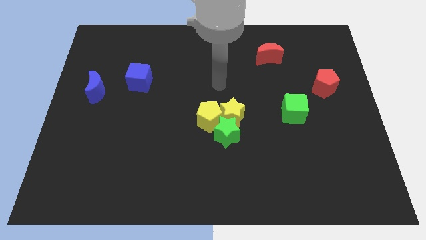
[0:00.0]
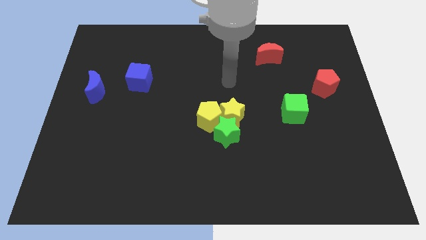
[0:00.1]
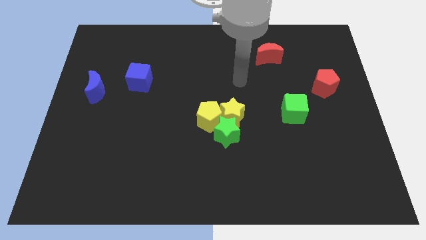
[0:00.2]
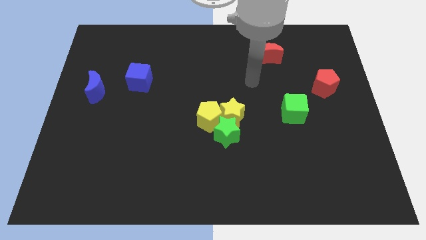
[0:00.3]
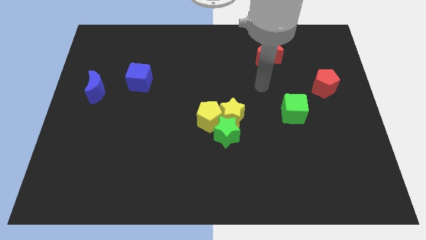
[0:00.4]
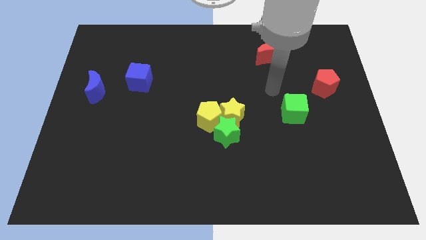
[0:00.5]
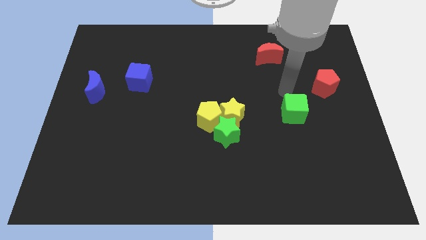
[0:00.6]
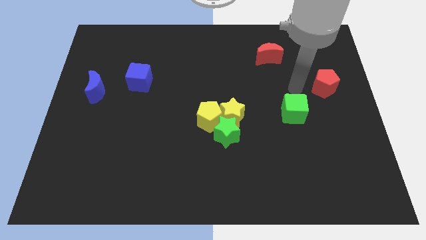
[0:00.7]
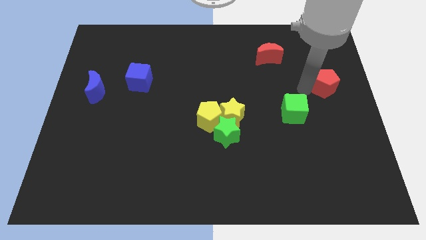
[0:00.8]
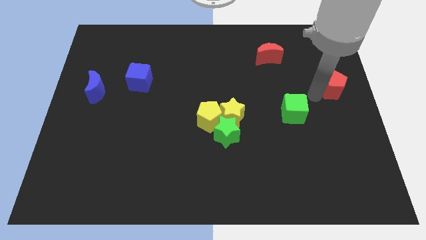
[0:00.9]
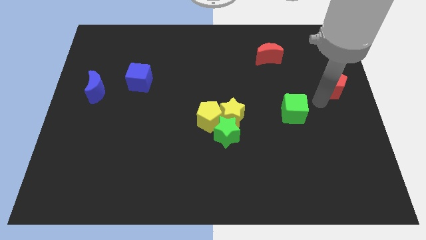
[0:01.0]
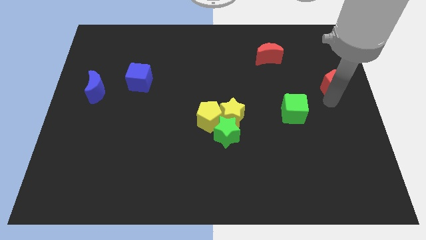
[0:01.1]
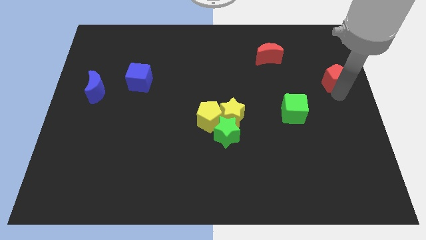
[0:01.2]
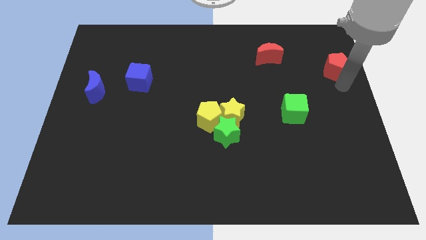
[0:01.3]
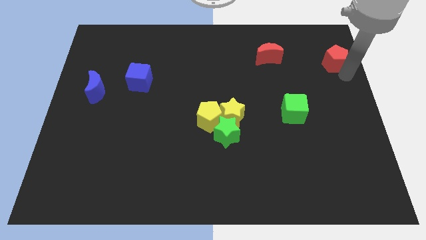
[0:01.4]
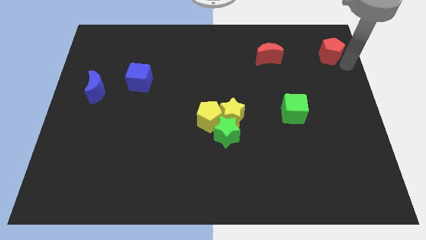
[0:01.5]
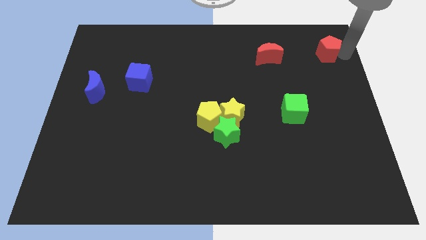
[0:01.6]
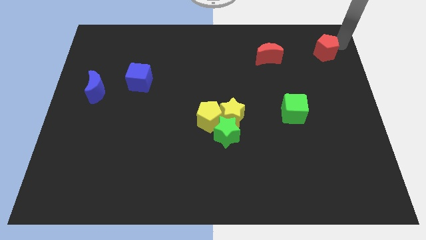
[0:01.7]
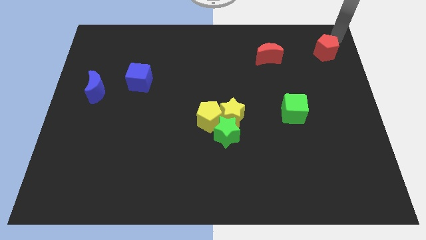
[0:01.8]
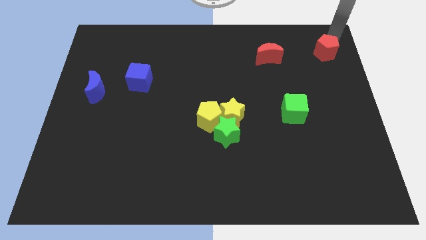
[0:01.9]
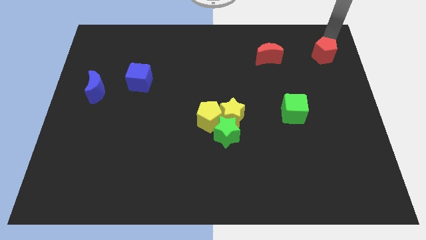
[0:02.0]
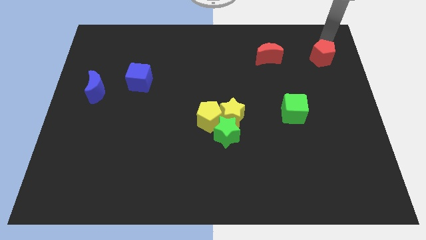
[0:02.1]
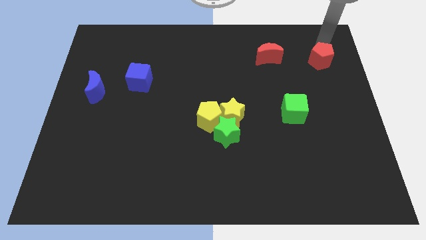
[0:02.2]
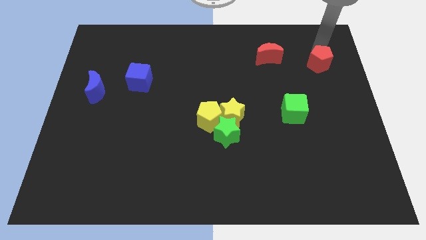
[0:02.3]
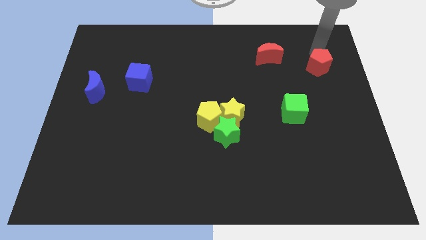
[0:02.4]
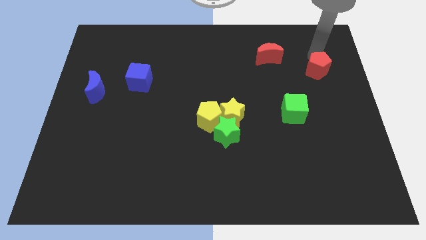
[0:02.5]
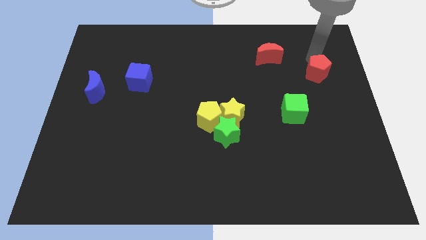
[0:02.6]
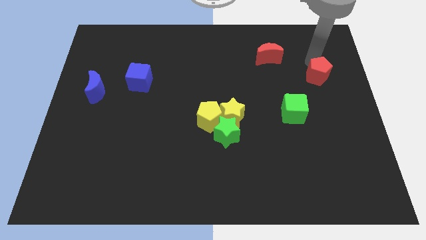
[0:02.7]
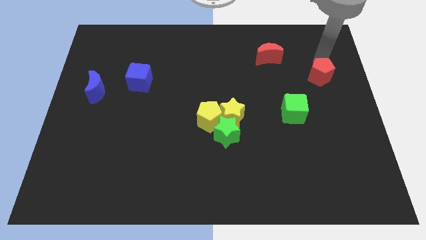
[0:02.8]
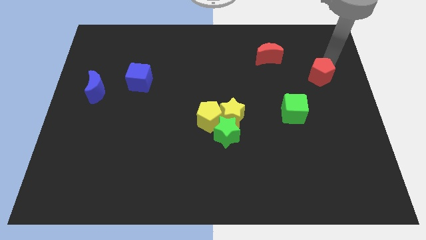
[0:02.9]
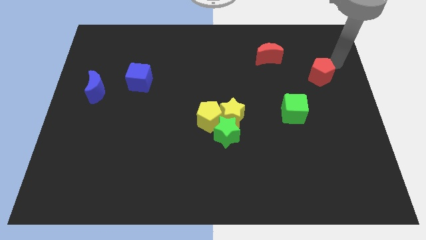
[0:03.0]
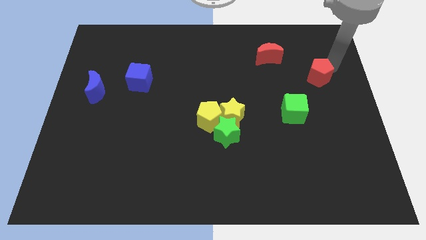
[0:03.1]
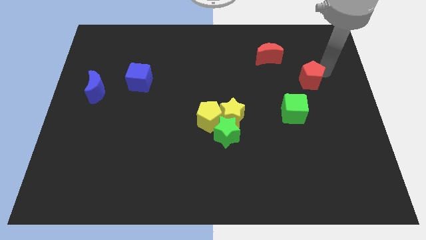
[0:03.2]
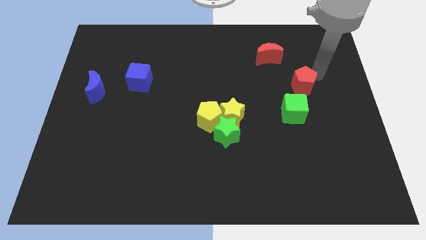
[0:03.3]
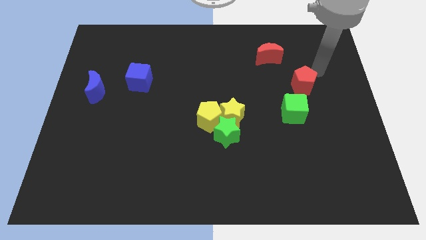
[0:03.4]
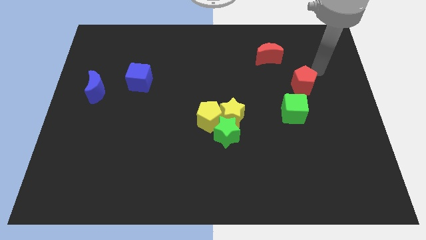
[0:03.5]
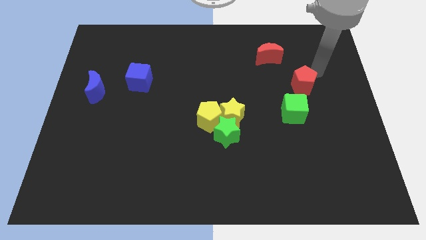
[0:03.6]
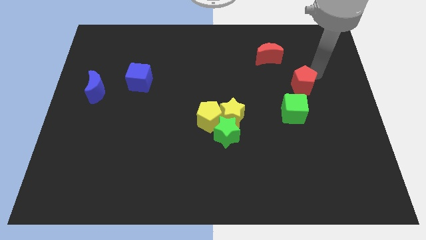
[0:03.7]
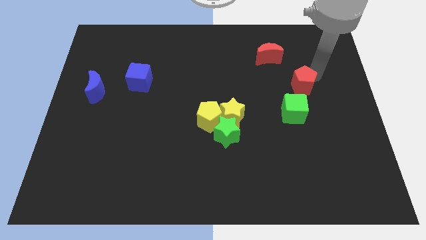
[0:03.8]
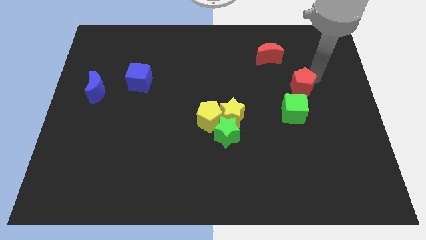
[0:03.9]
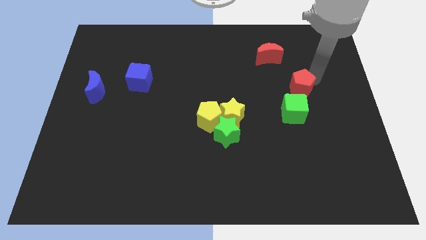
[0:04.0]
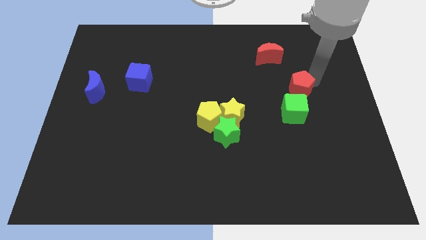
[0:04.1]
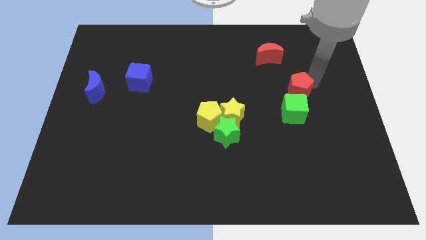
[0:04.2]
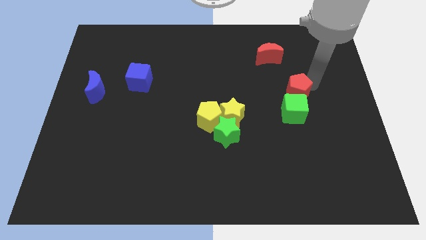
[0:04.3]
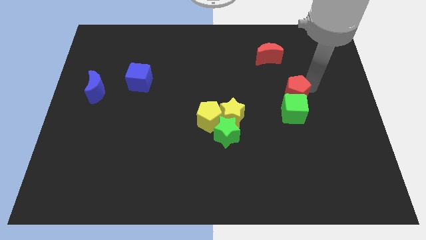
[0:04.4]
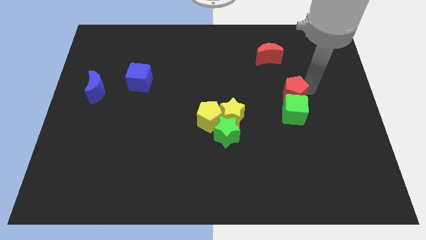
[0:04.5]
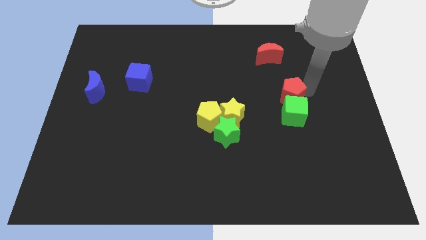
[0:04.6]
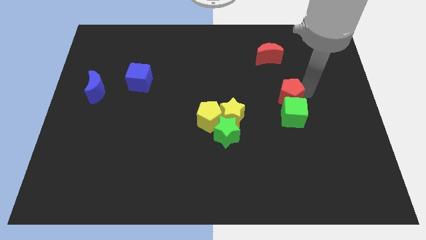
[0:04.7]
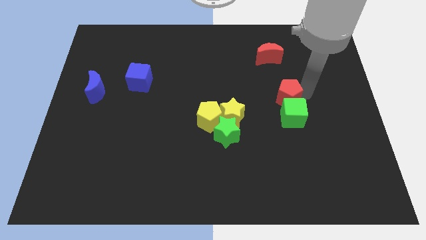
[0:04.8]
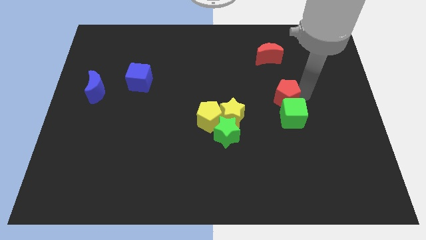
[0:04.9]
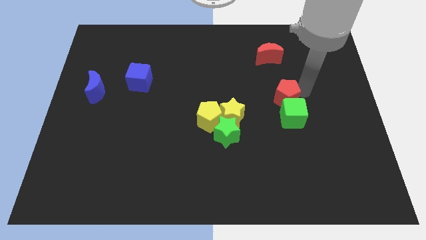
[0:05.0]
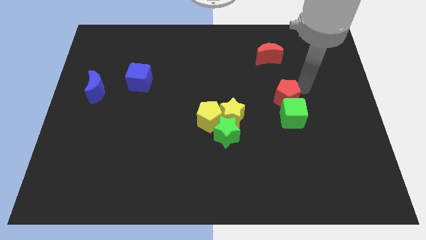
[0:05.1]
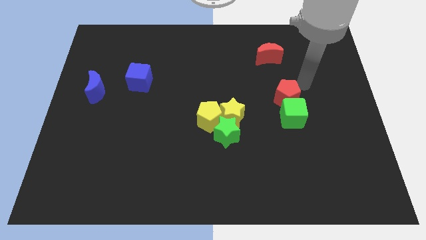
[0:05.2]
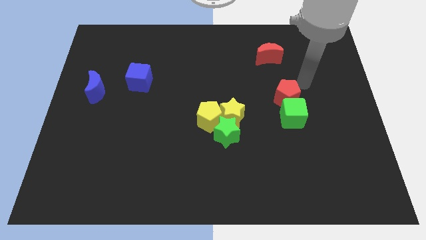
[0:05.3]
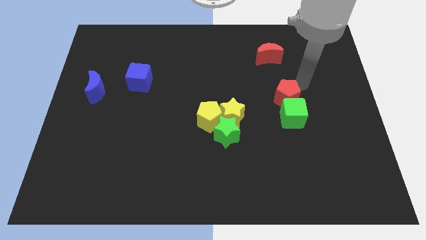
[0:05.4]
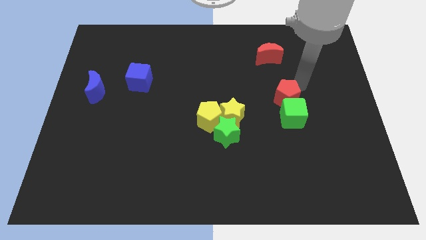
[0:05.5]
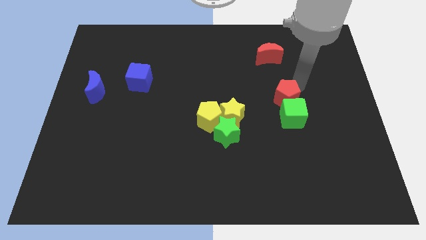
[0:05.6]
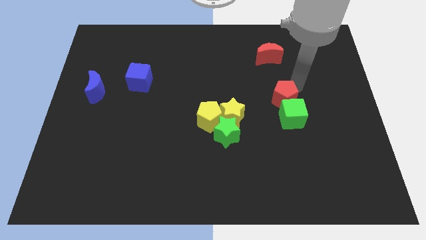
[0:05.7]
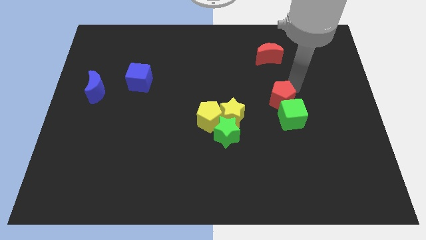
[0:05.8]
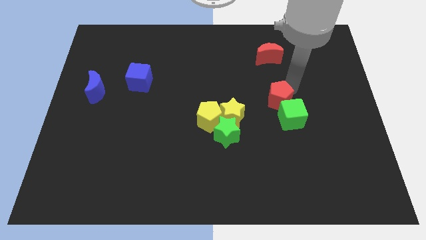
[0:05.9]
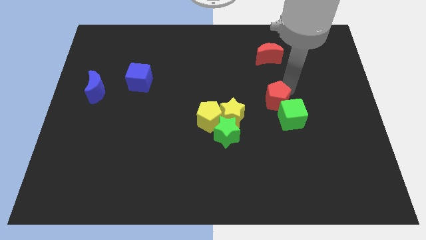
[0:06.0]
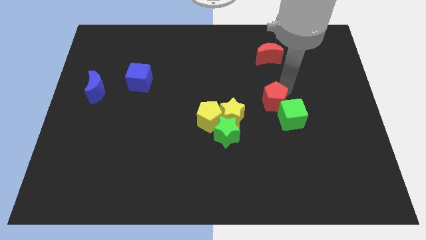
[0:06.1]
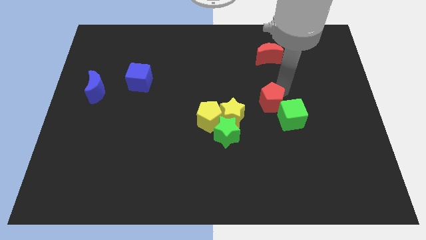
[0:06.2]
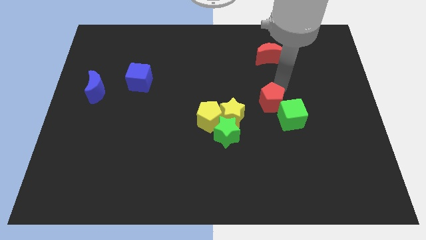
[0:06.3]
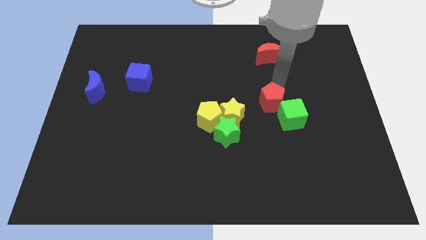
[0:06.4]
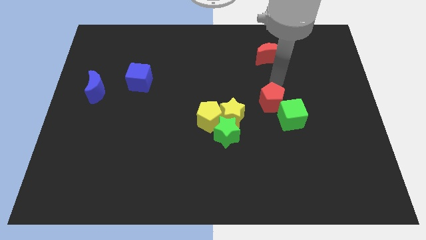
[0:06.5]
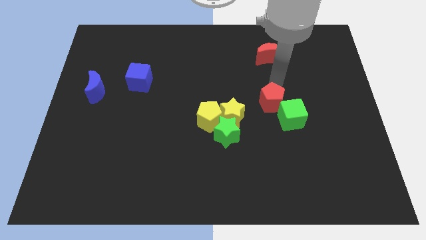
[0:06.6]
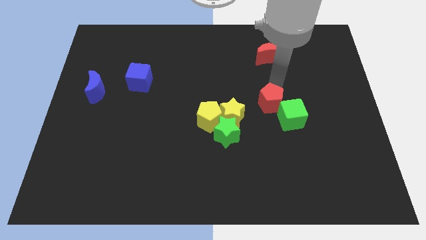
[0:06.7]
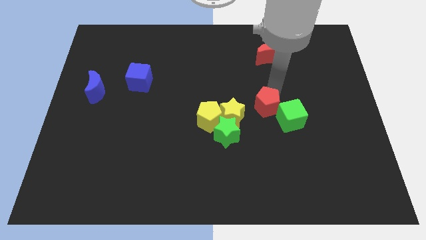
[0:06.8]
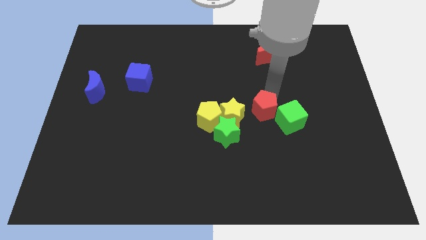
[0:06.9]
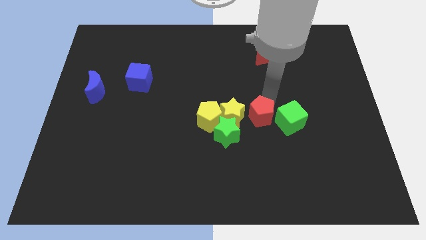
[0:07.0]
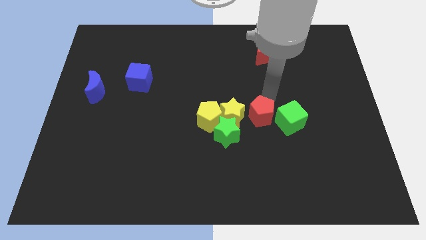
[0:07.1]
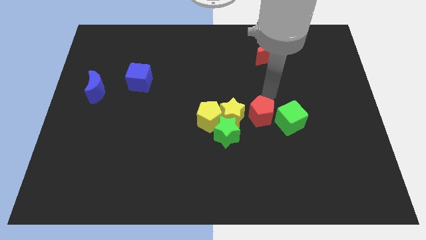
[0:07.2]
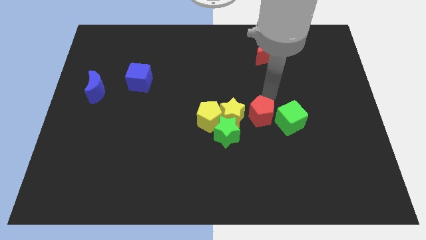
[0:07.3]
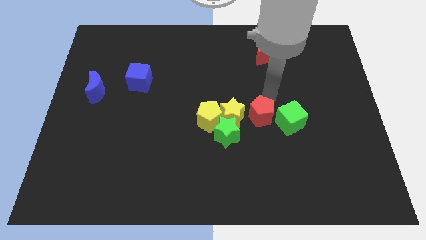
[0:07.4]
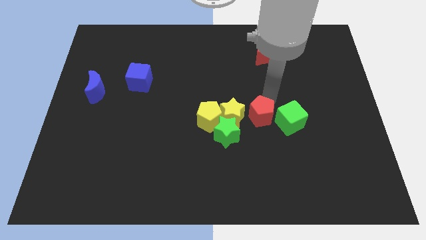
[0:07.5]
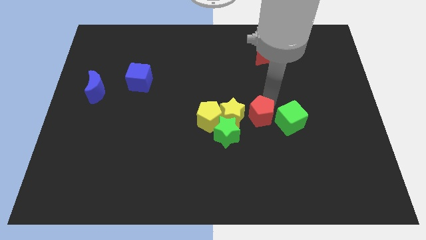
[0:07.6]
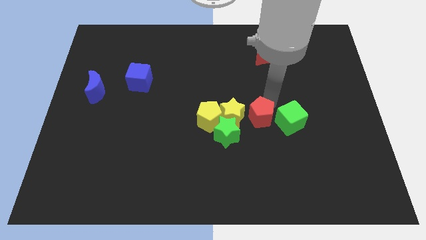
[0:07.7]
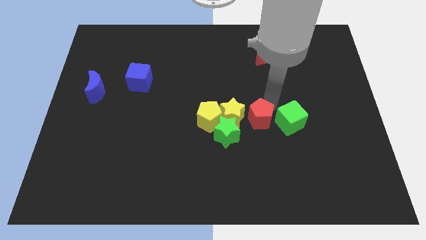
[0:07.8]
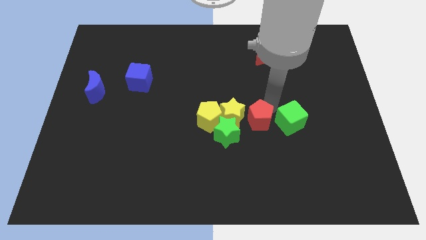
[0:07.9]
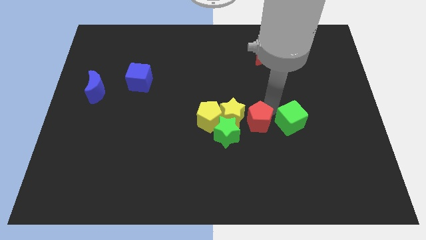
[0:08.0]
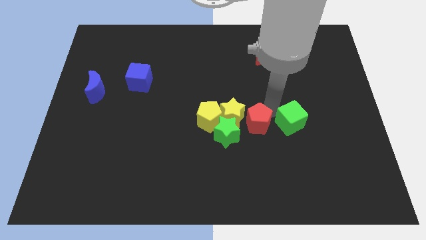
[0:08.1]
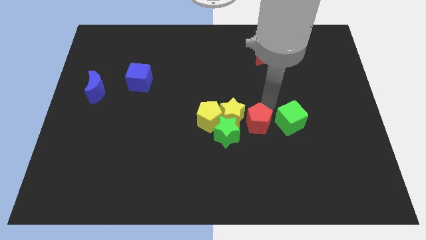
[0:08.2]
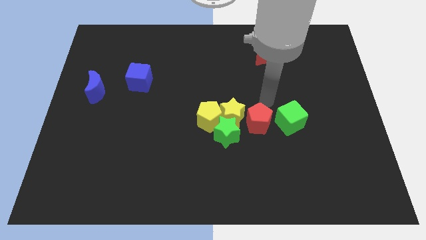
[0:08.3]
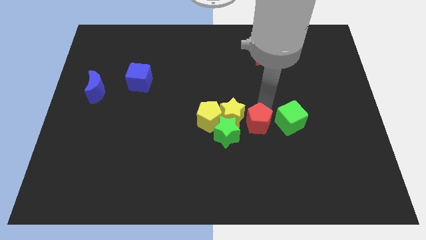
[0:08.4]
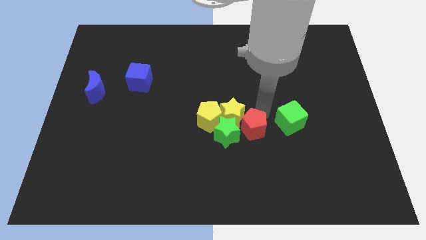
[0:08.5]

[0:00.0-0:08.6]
push the red pentagon diagonally downwards and to the left
